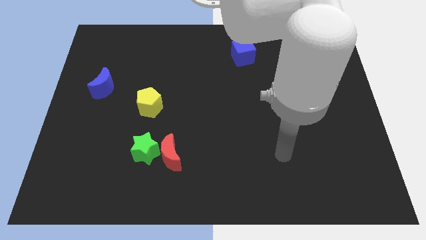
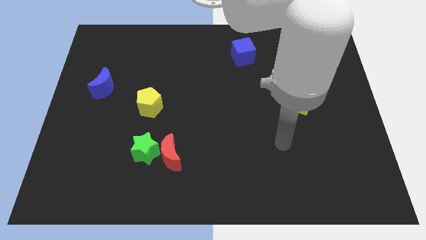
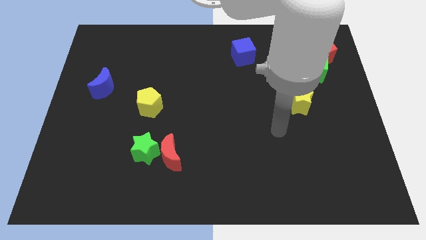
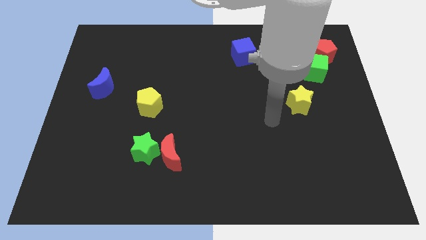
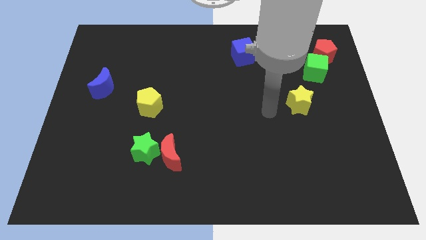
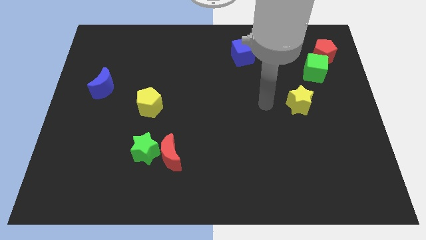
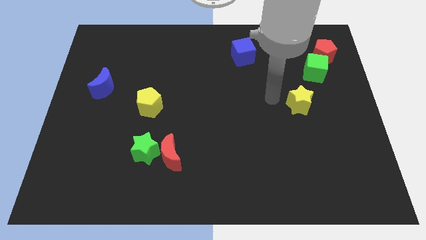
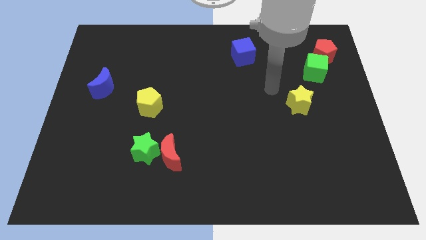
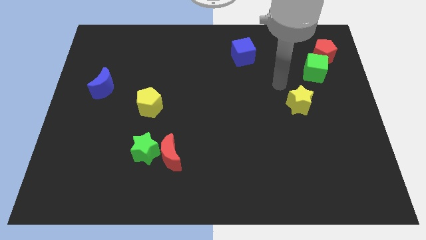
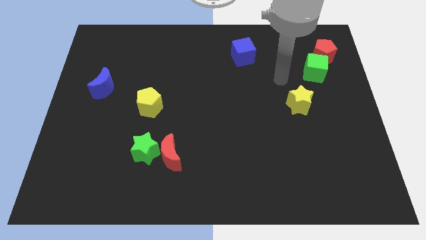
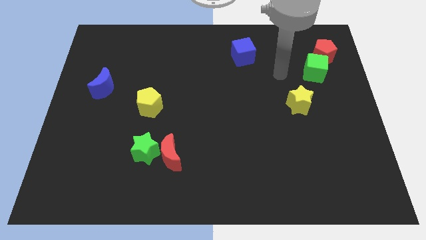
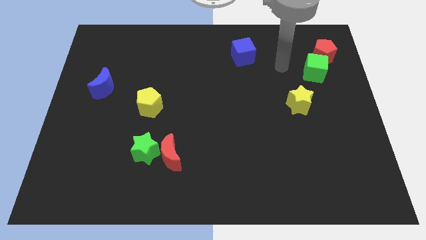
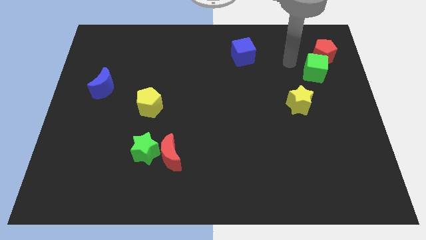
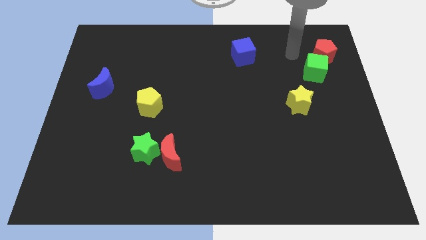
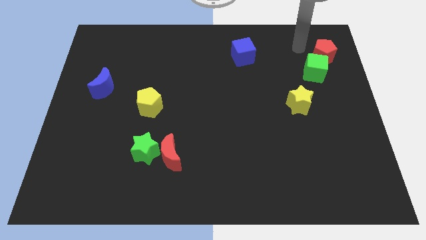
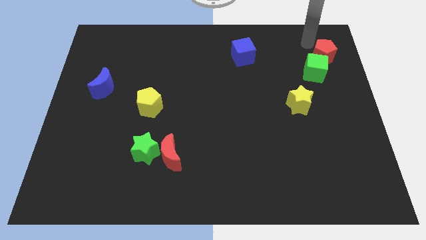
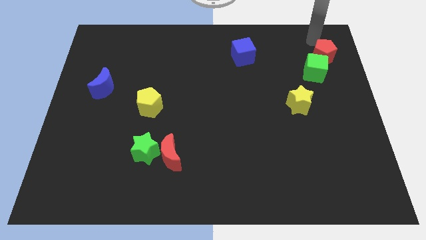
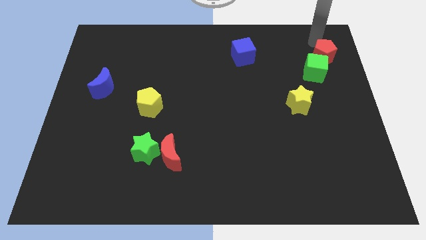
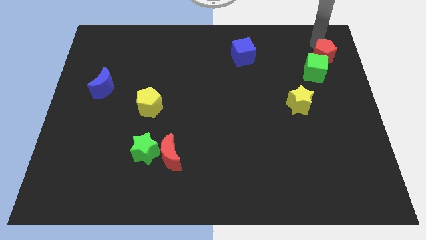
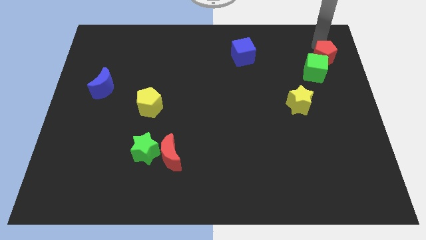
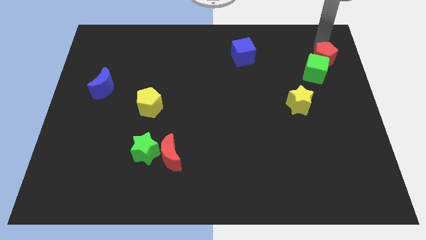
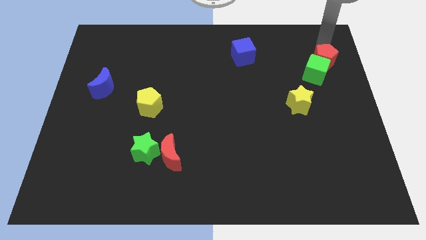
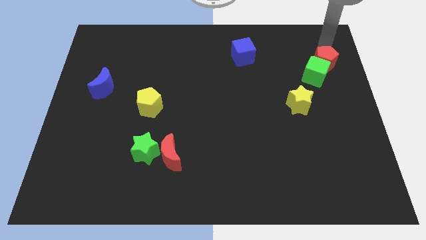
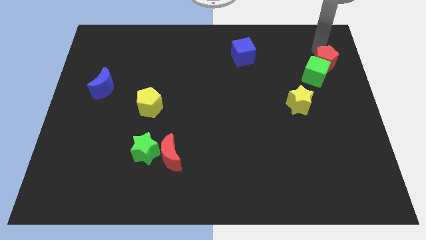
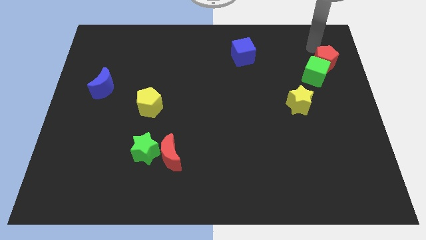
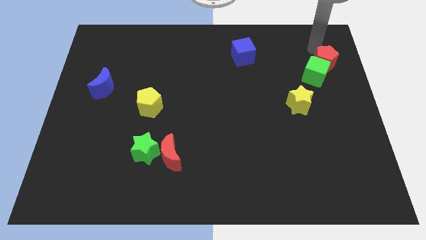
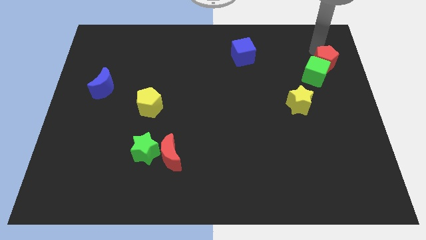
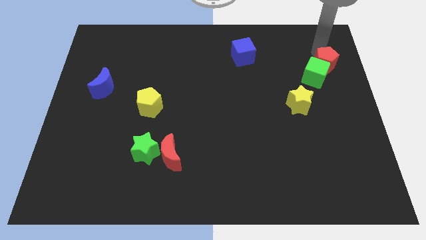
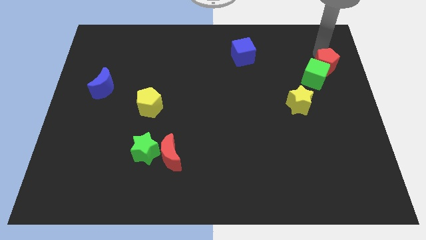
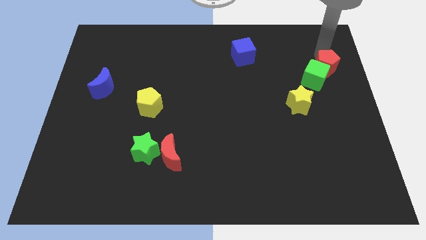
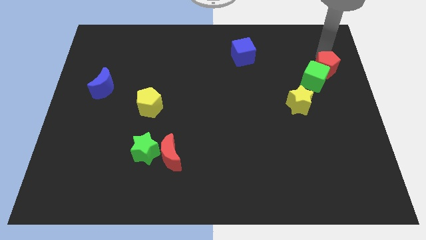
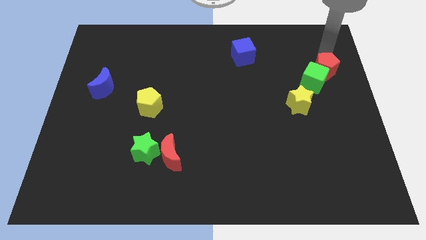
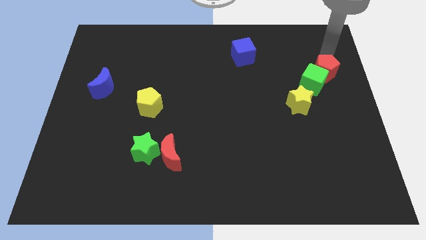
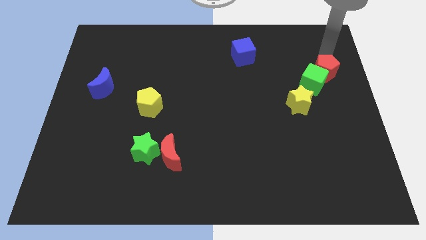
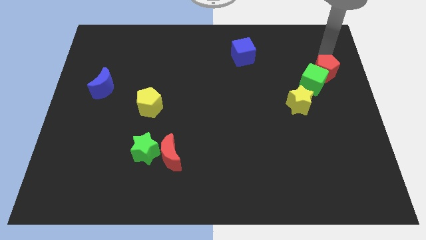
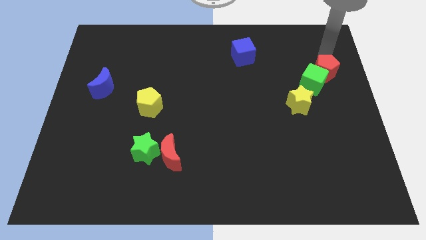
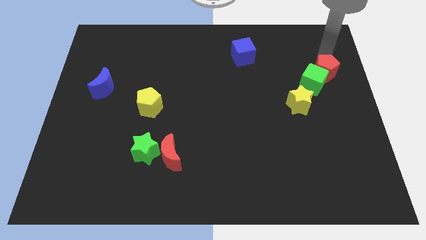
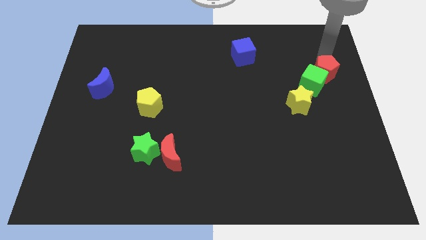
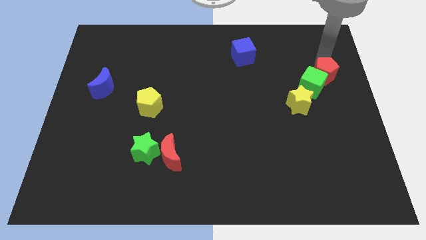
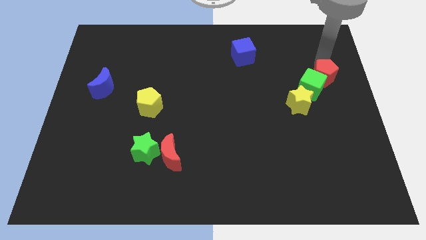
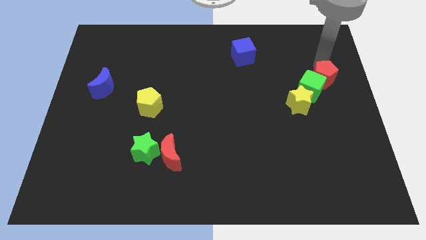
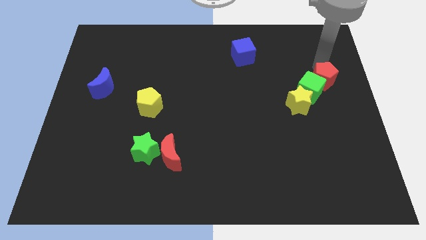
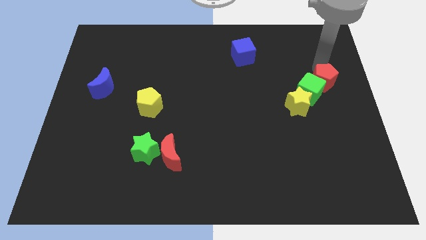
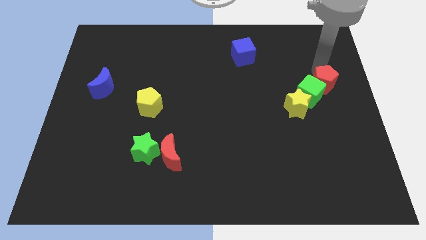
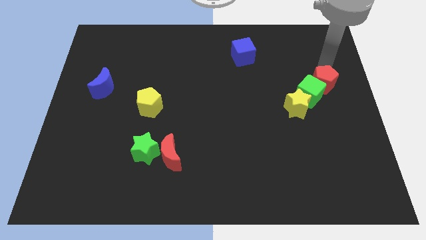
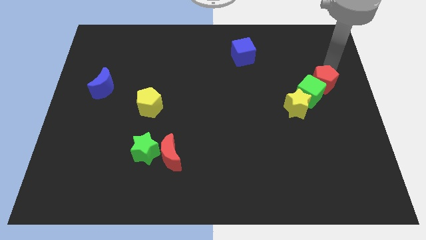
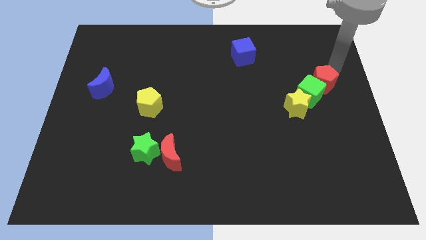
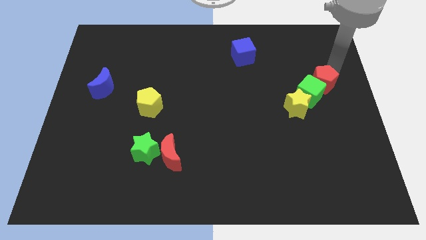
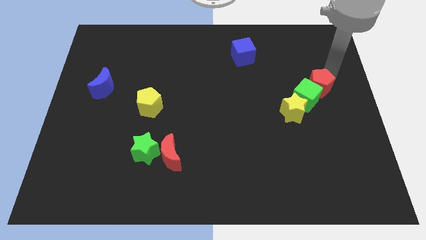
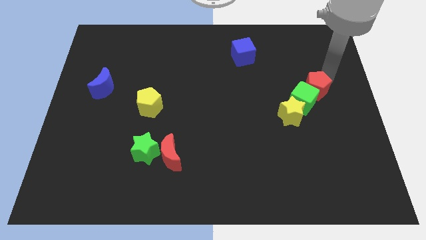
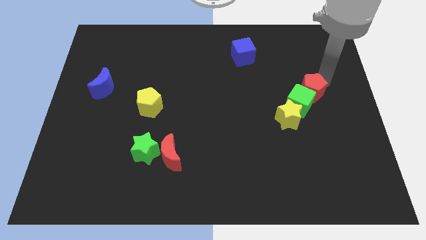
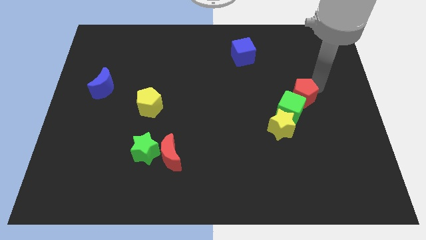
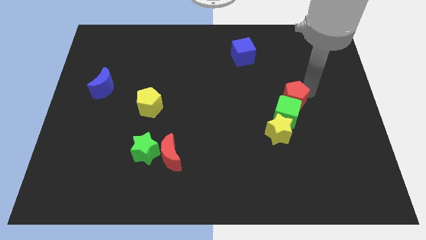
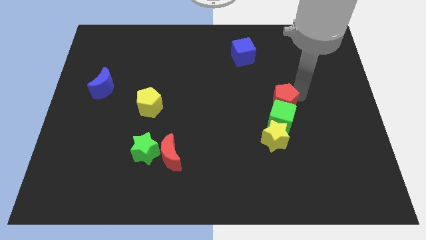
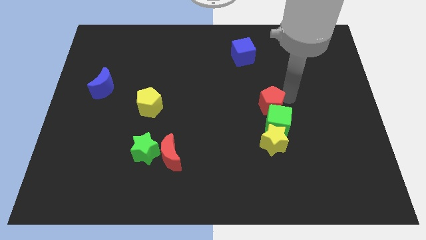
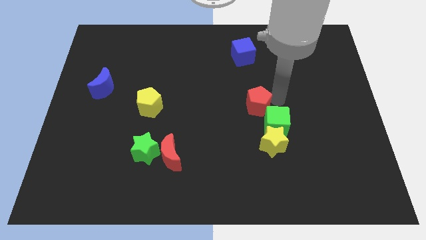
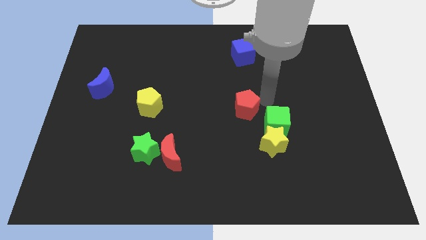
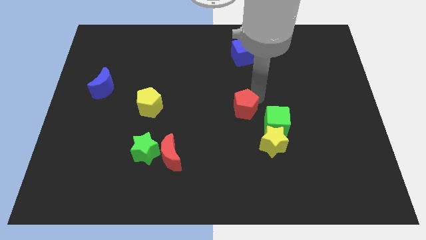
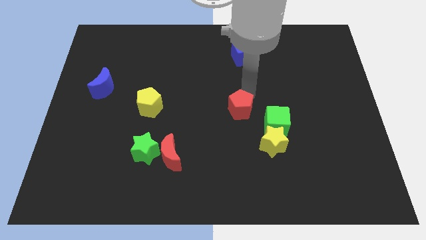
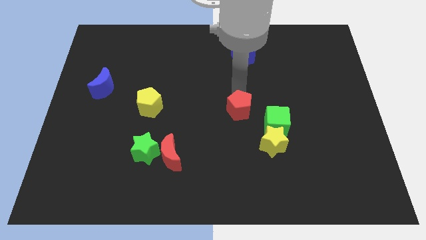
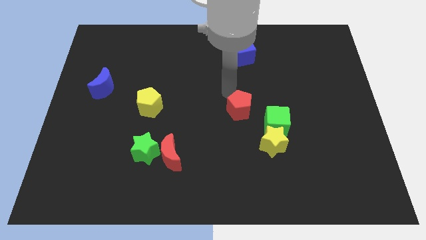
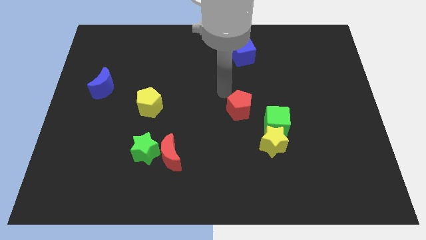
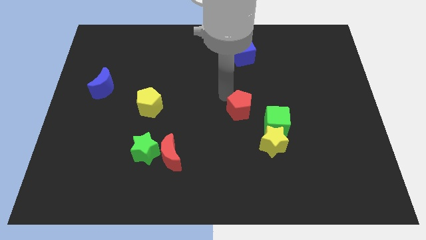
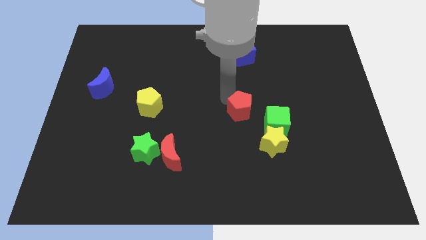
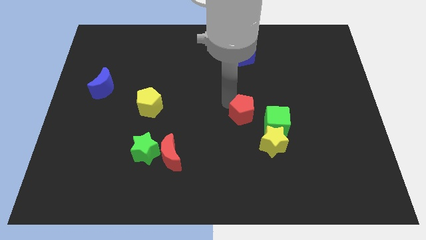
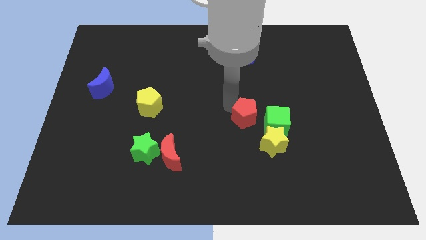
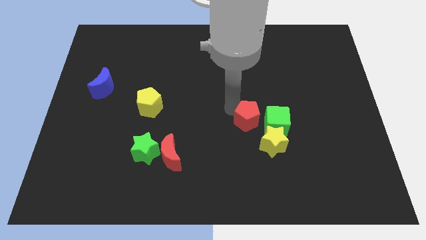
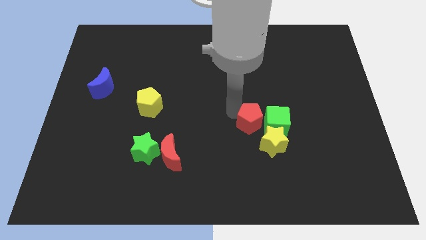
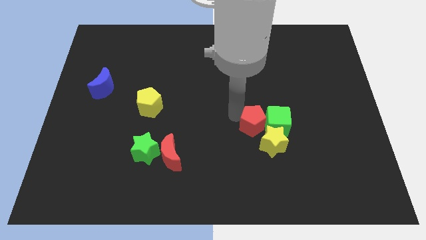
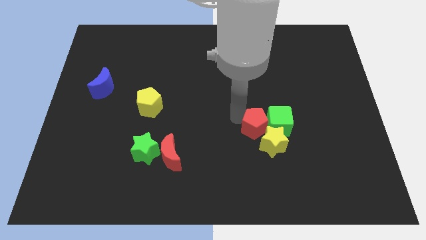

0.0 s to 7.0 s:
push the red pentagon next to the yellow star

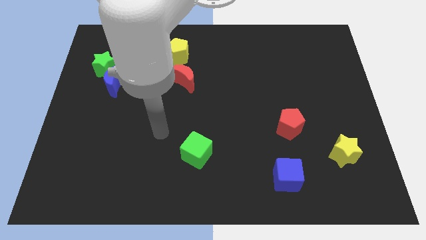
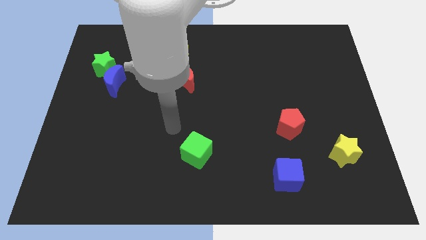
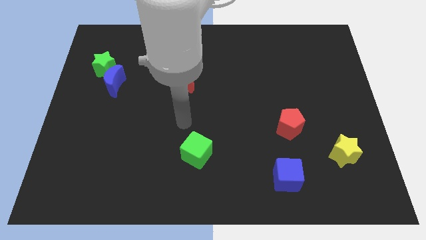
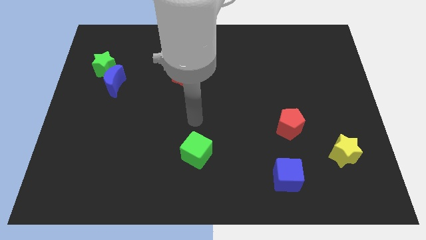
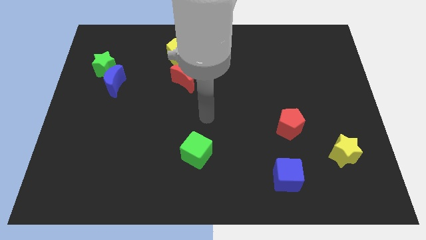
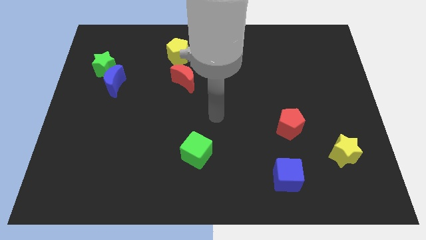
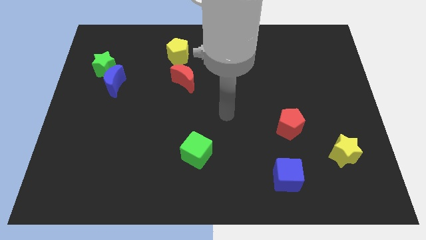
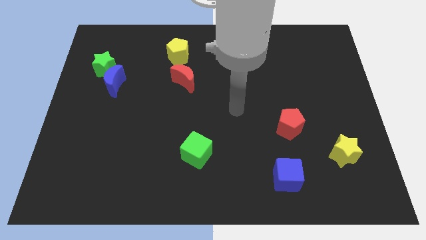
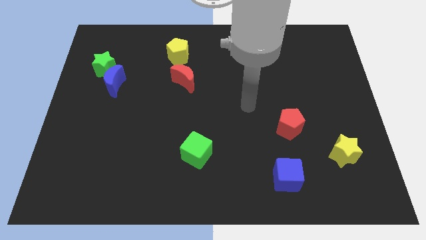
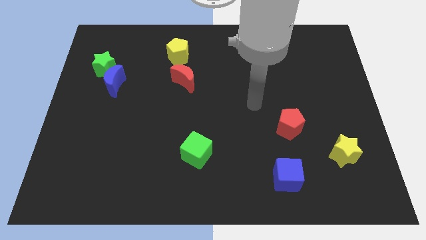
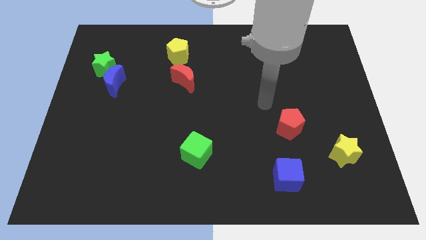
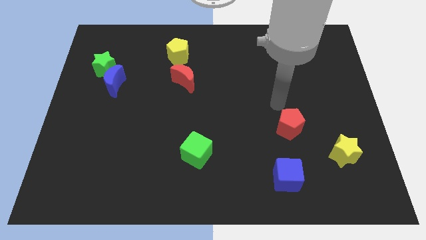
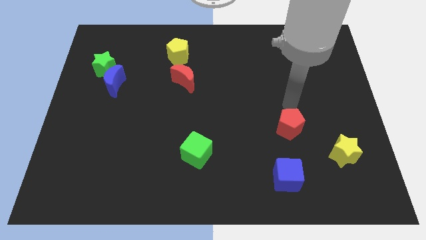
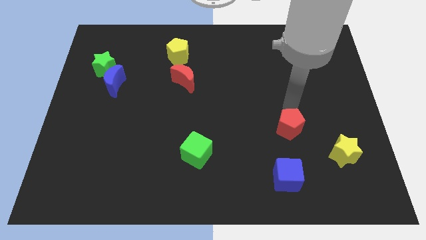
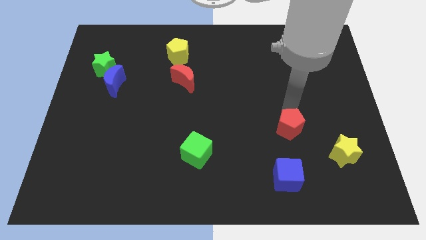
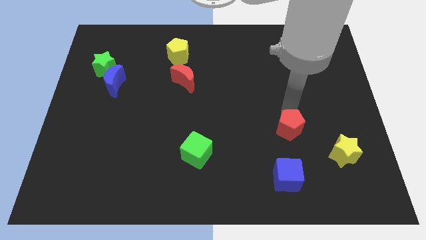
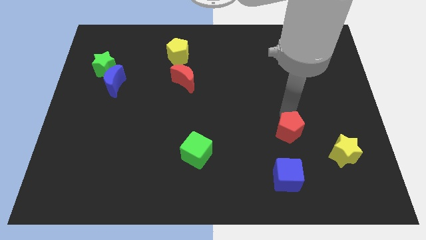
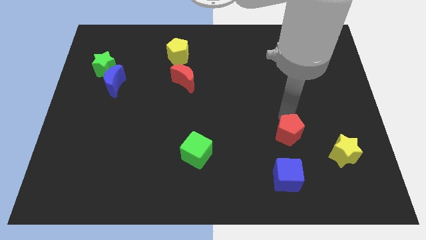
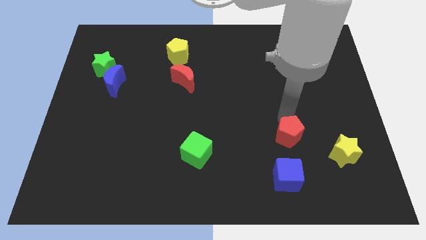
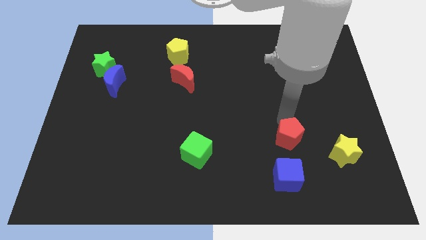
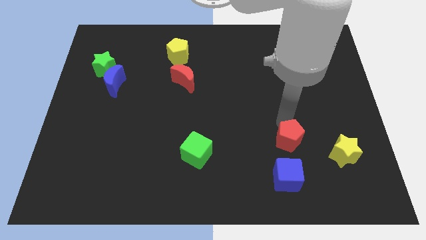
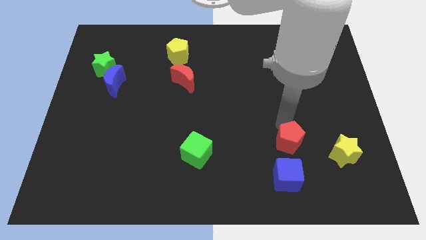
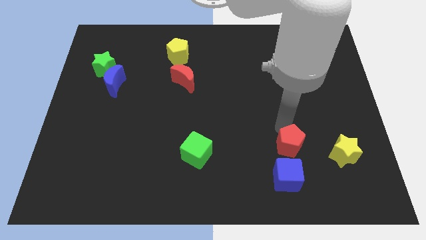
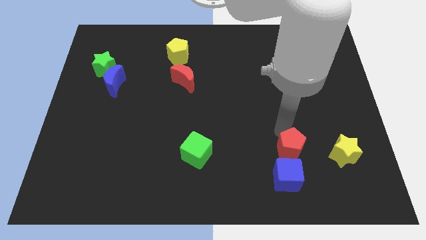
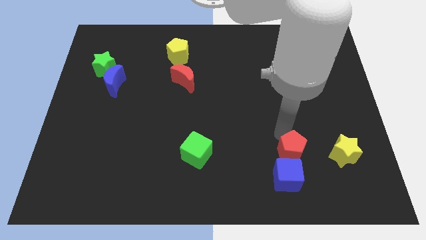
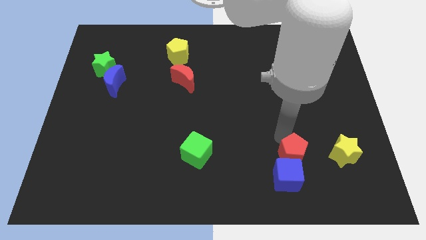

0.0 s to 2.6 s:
slide the red pentagon close to the blue cube
